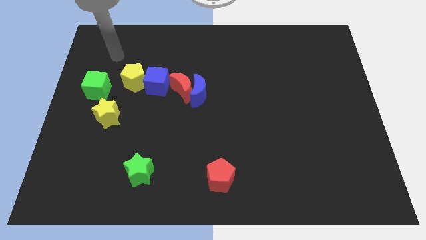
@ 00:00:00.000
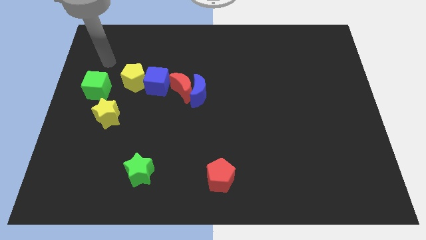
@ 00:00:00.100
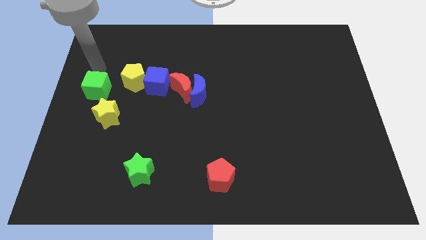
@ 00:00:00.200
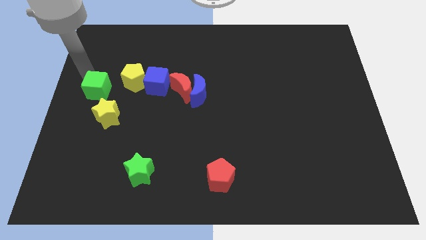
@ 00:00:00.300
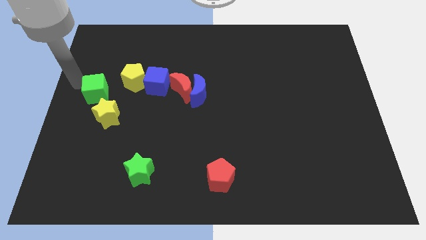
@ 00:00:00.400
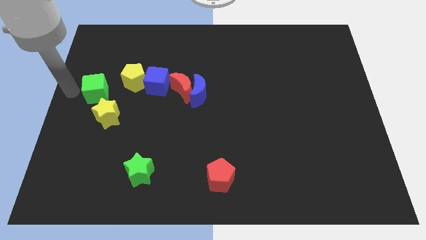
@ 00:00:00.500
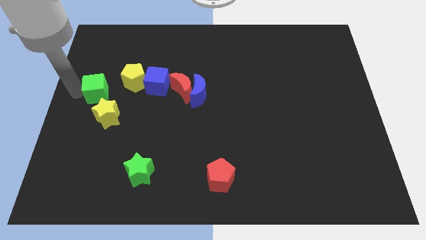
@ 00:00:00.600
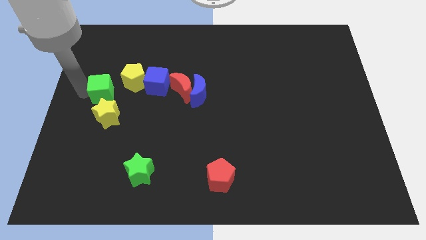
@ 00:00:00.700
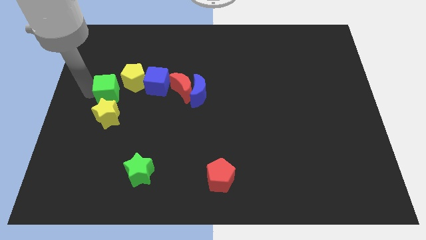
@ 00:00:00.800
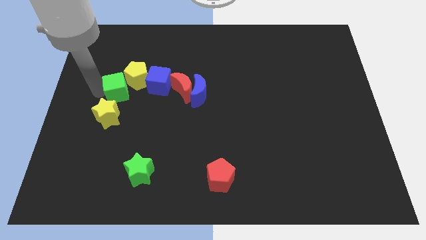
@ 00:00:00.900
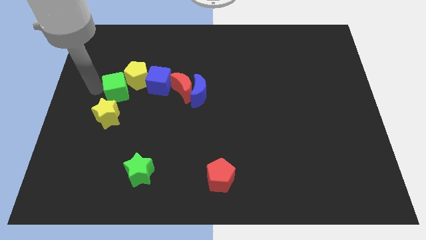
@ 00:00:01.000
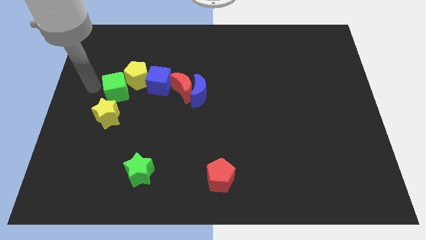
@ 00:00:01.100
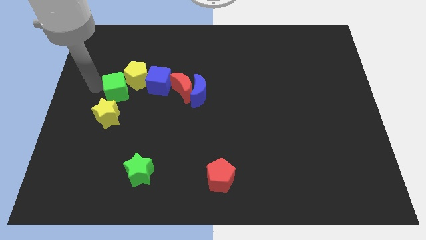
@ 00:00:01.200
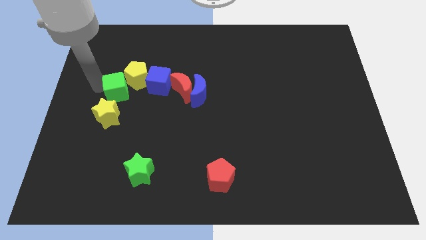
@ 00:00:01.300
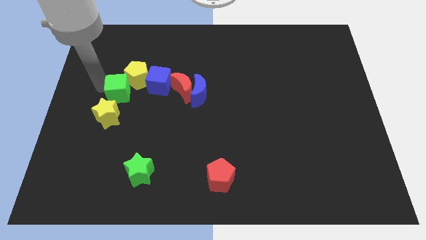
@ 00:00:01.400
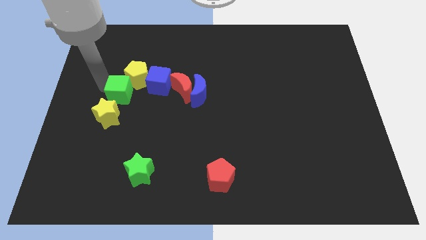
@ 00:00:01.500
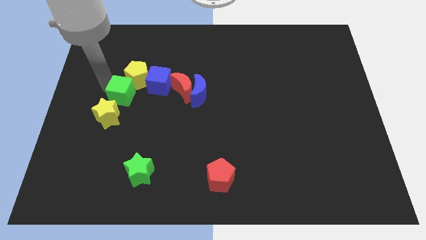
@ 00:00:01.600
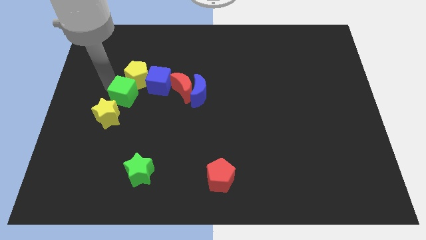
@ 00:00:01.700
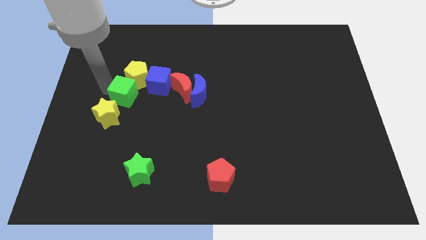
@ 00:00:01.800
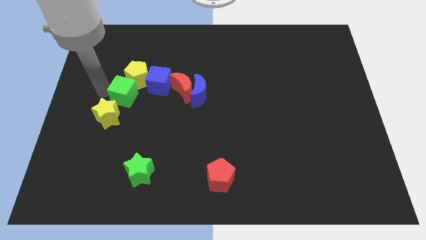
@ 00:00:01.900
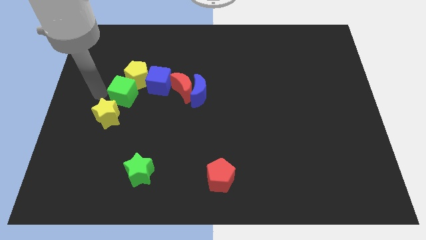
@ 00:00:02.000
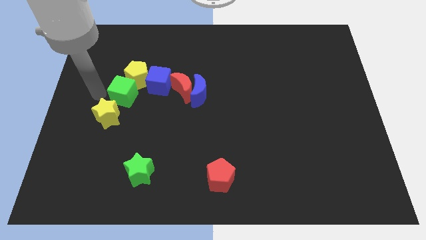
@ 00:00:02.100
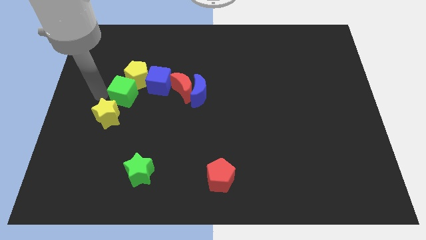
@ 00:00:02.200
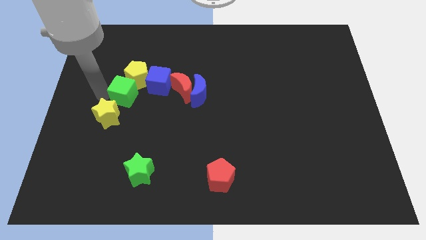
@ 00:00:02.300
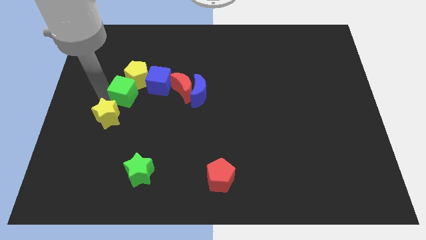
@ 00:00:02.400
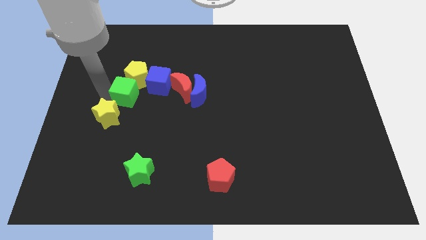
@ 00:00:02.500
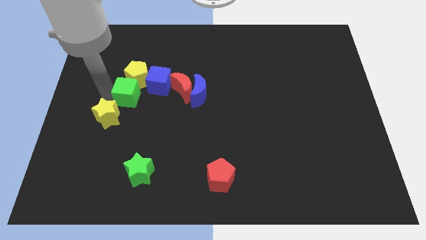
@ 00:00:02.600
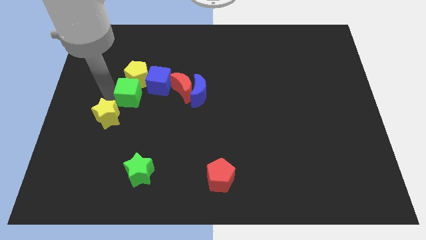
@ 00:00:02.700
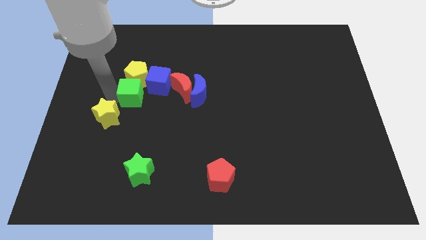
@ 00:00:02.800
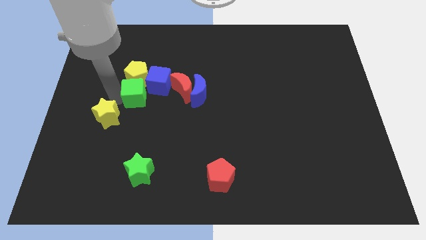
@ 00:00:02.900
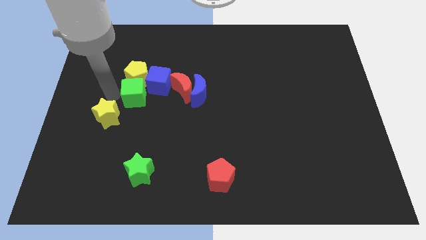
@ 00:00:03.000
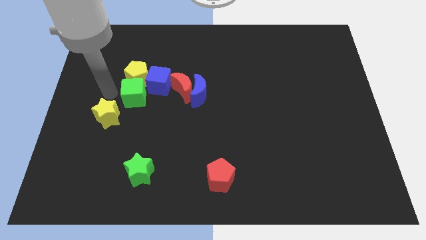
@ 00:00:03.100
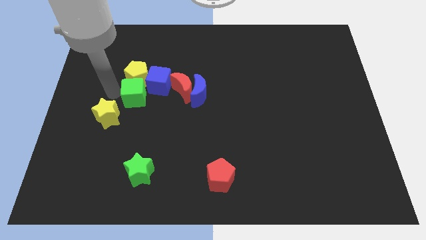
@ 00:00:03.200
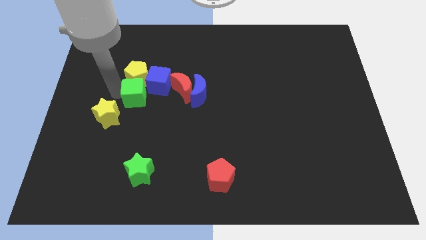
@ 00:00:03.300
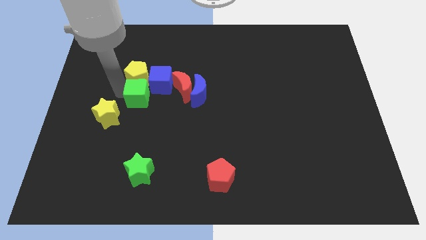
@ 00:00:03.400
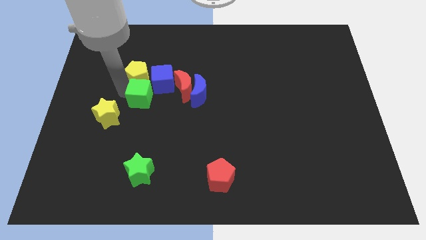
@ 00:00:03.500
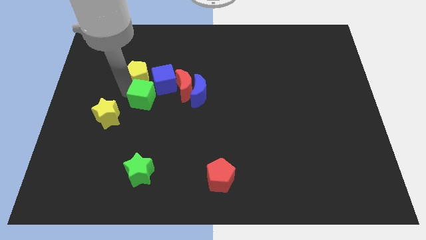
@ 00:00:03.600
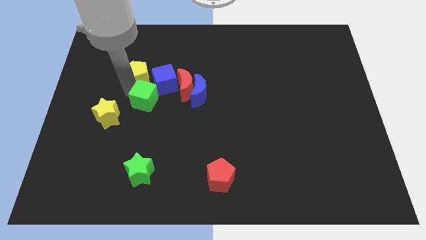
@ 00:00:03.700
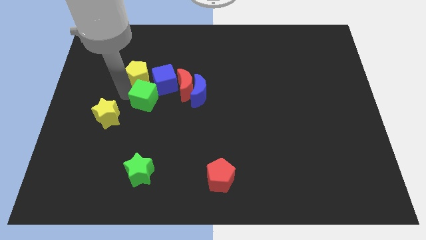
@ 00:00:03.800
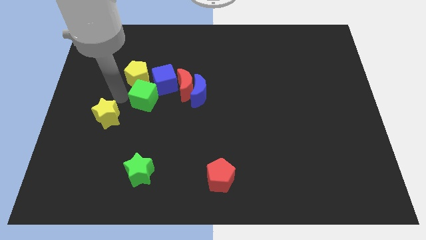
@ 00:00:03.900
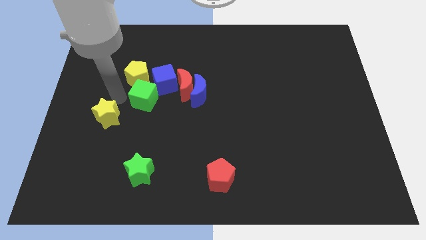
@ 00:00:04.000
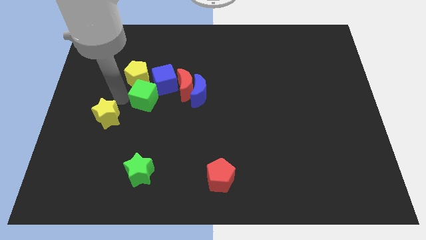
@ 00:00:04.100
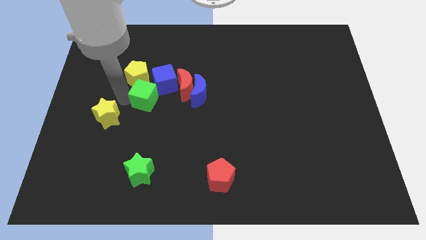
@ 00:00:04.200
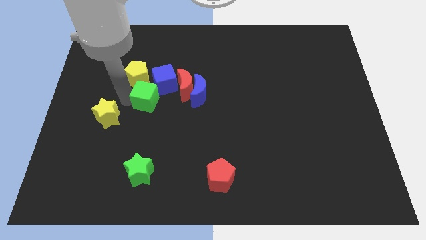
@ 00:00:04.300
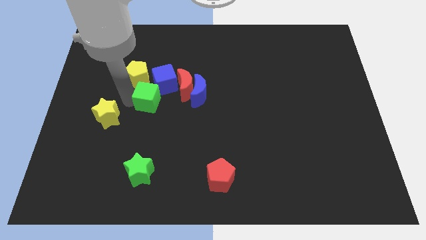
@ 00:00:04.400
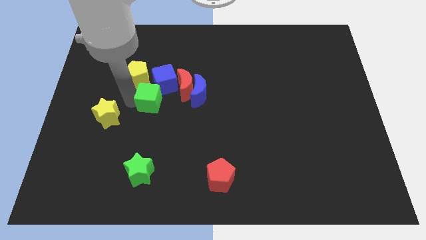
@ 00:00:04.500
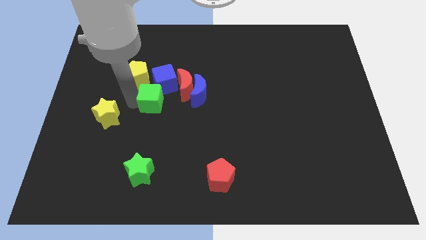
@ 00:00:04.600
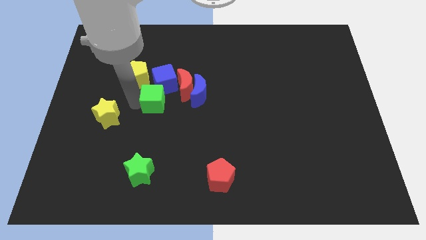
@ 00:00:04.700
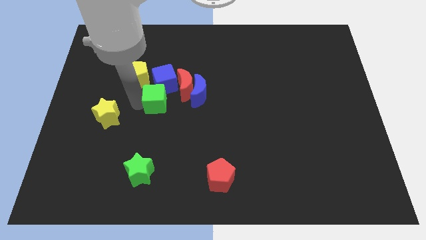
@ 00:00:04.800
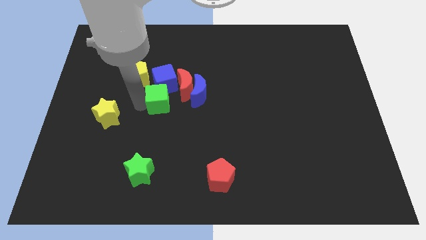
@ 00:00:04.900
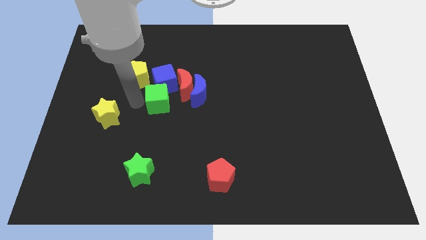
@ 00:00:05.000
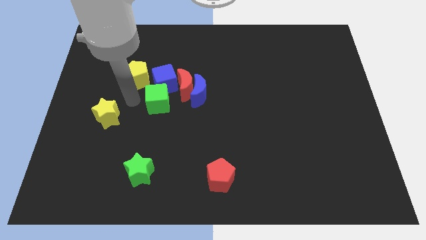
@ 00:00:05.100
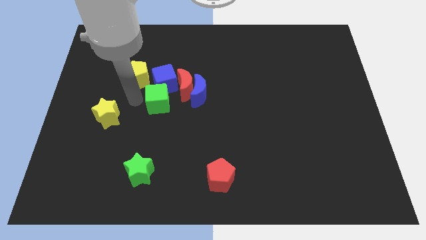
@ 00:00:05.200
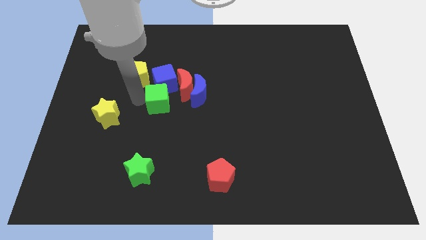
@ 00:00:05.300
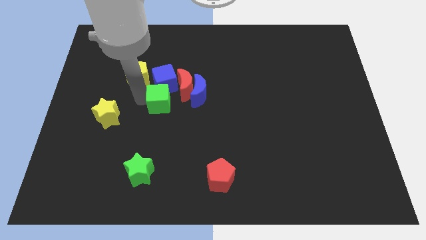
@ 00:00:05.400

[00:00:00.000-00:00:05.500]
put the green cube to the center of the board

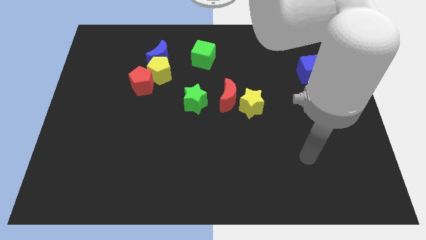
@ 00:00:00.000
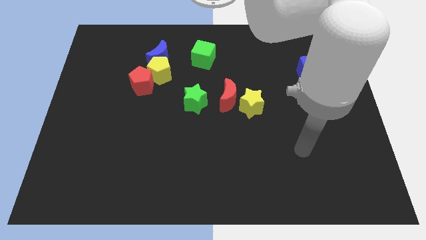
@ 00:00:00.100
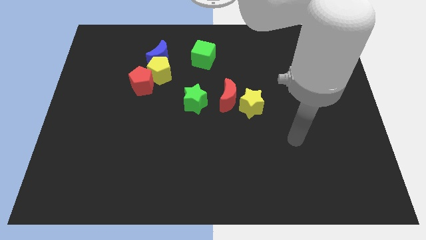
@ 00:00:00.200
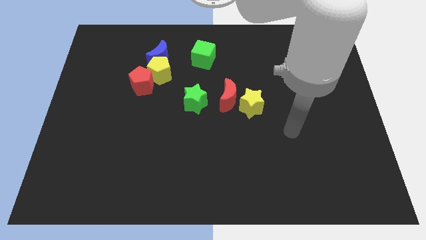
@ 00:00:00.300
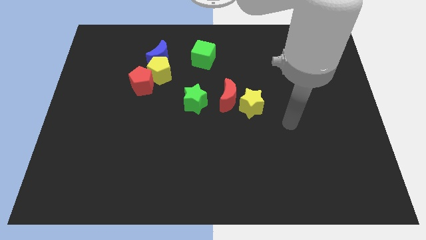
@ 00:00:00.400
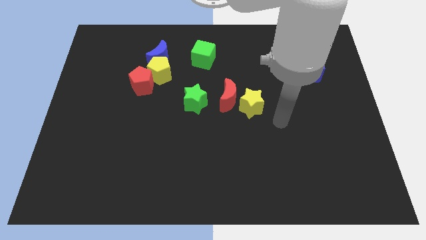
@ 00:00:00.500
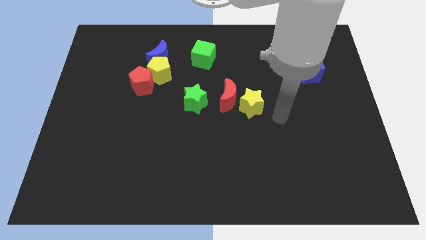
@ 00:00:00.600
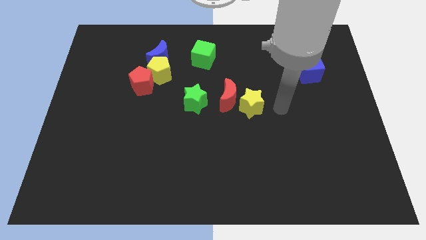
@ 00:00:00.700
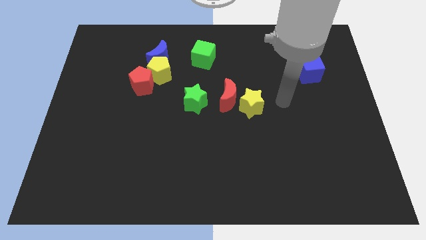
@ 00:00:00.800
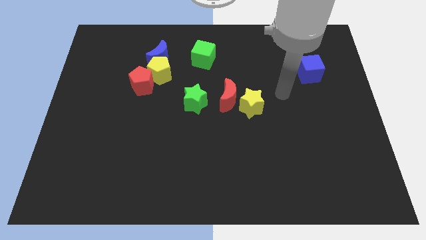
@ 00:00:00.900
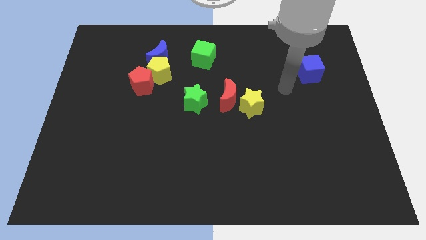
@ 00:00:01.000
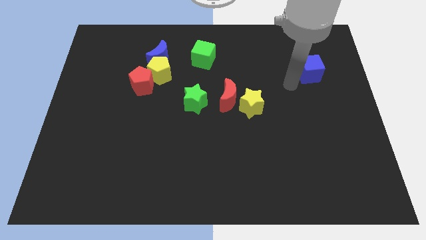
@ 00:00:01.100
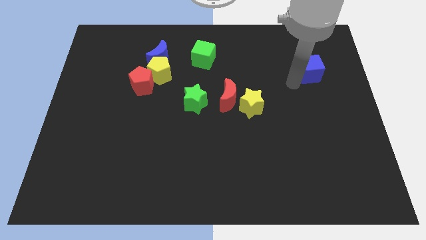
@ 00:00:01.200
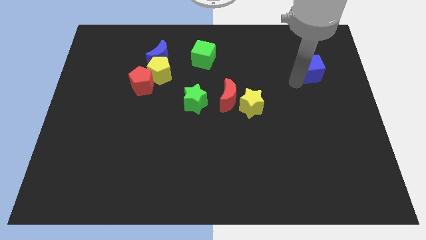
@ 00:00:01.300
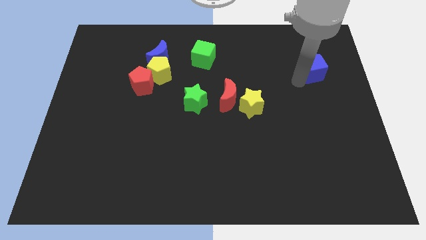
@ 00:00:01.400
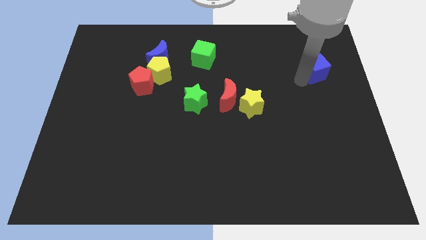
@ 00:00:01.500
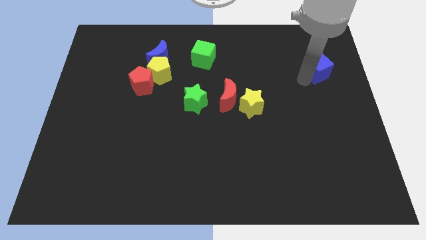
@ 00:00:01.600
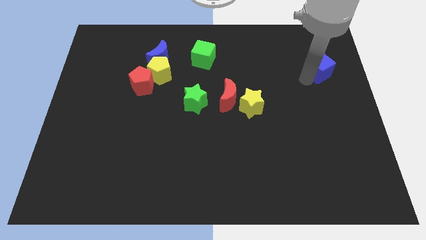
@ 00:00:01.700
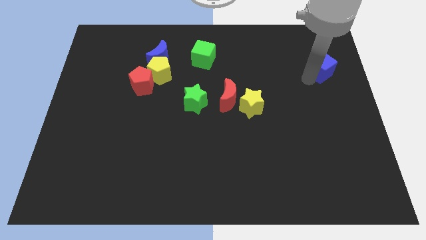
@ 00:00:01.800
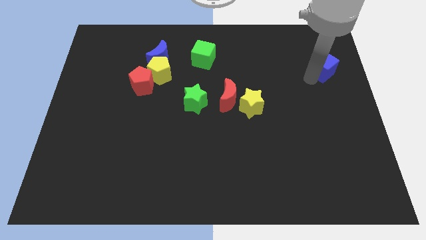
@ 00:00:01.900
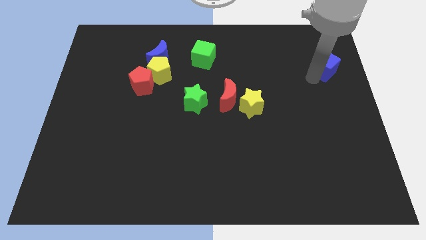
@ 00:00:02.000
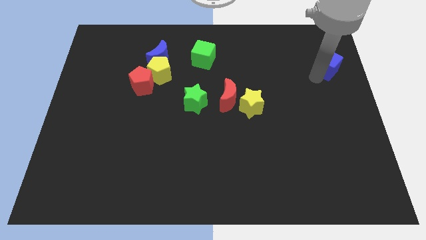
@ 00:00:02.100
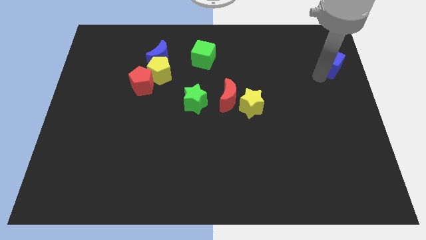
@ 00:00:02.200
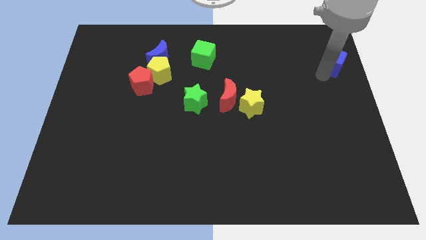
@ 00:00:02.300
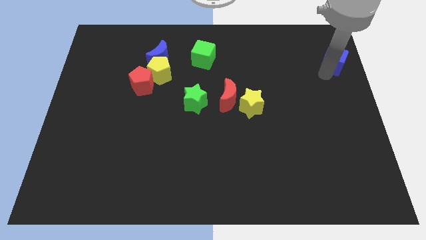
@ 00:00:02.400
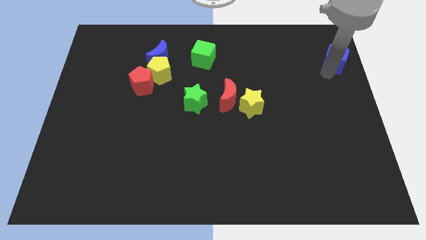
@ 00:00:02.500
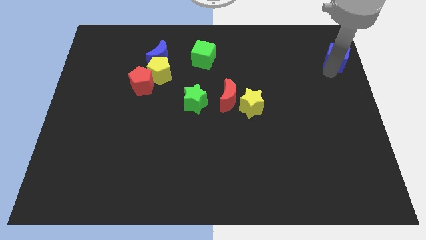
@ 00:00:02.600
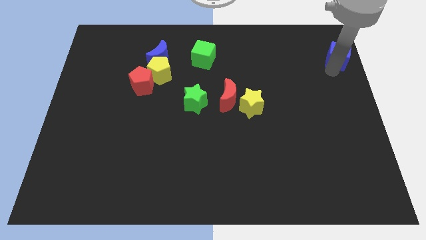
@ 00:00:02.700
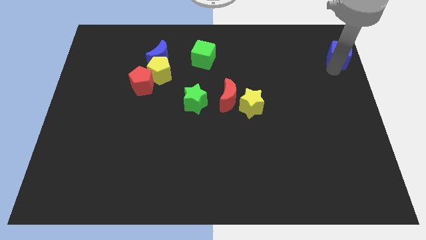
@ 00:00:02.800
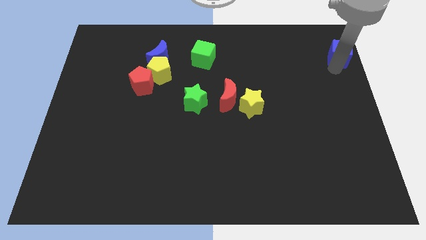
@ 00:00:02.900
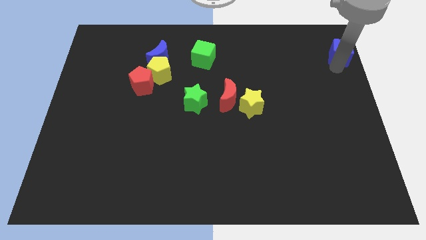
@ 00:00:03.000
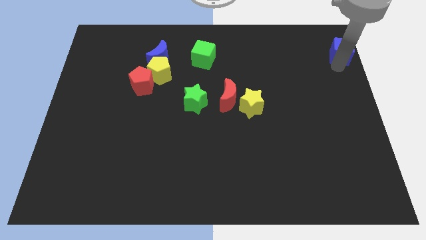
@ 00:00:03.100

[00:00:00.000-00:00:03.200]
put the blue cube to the top right corner
